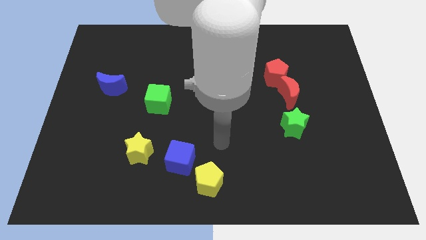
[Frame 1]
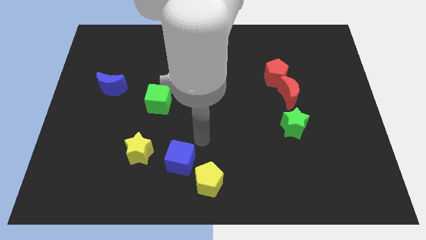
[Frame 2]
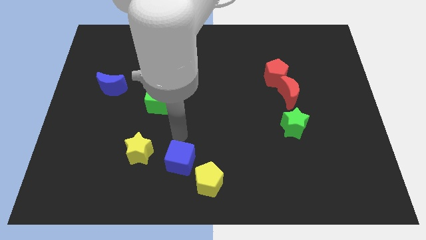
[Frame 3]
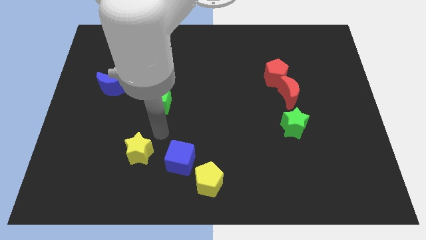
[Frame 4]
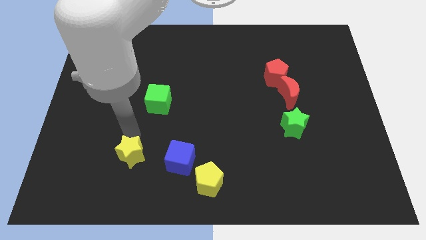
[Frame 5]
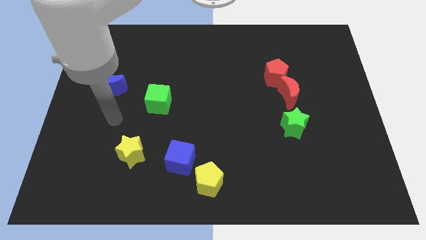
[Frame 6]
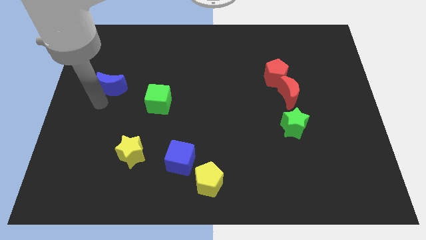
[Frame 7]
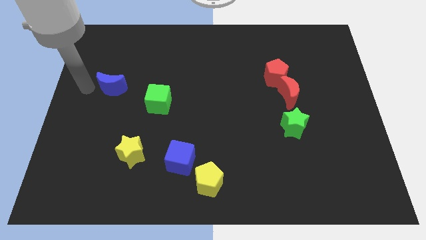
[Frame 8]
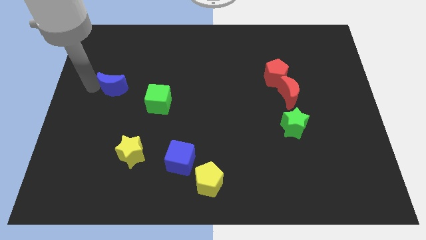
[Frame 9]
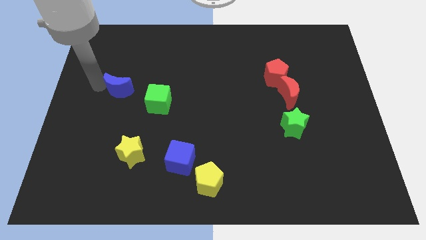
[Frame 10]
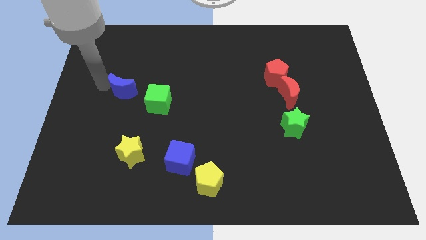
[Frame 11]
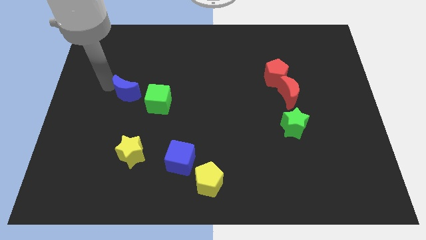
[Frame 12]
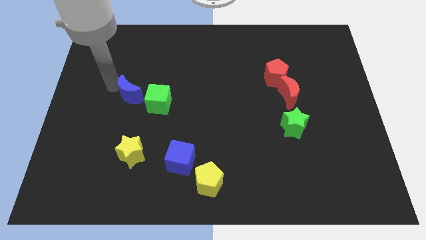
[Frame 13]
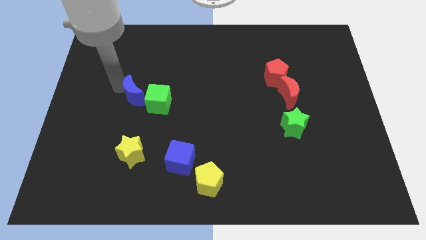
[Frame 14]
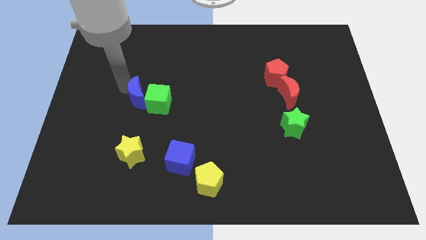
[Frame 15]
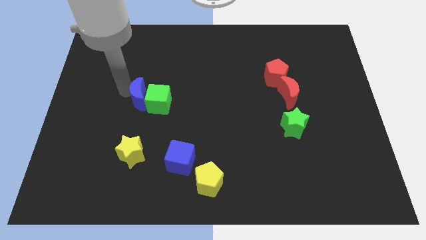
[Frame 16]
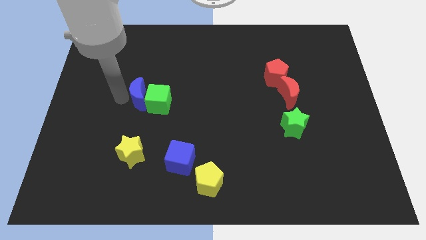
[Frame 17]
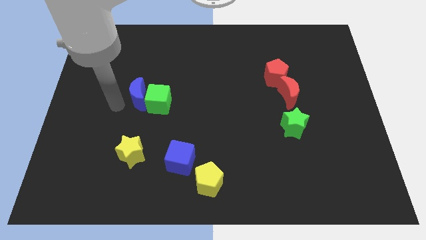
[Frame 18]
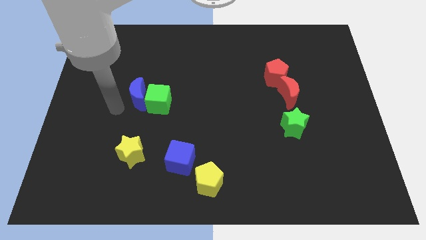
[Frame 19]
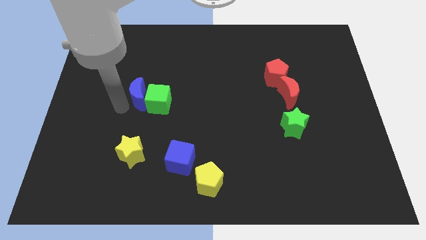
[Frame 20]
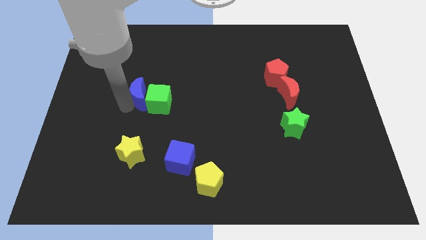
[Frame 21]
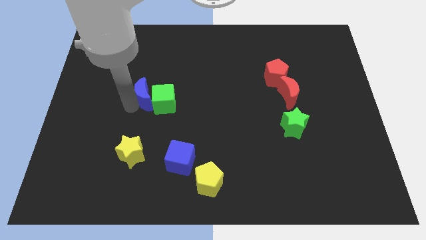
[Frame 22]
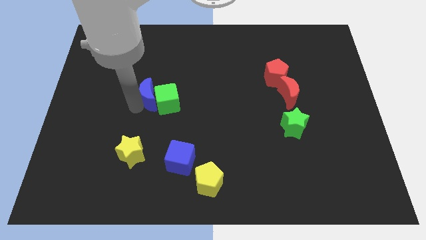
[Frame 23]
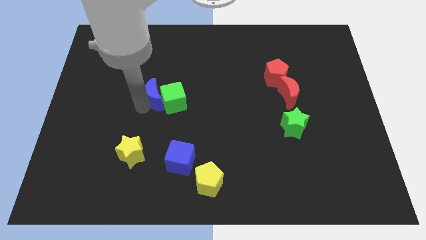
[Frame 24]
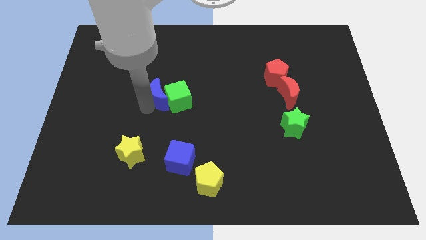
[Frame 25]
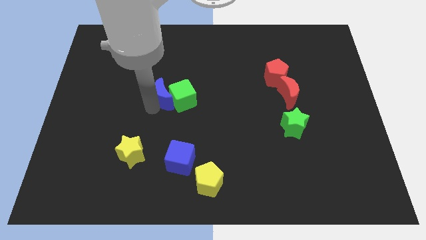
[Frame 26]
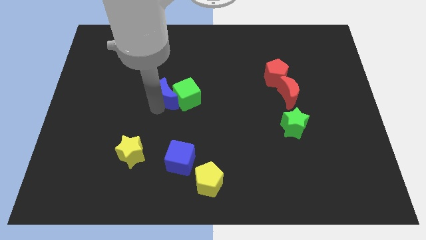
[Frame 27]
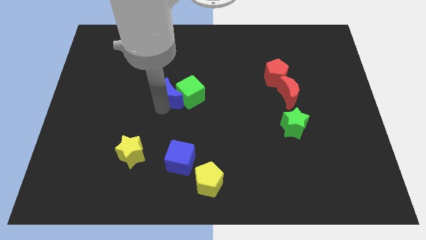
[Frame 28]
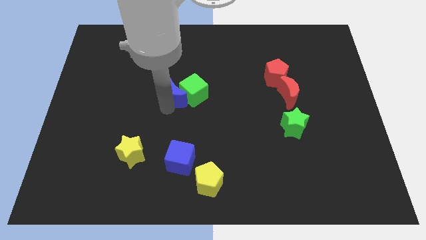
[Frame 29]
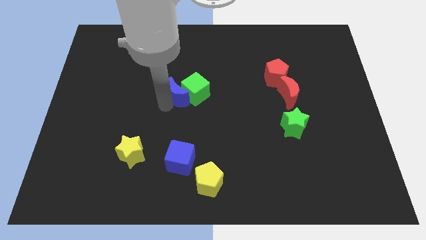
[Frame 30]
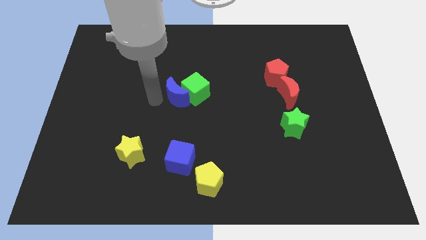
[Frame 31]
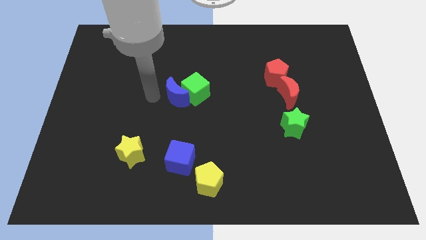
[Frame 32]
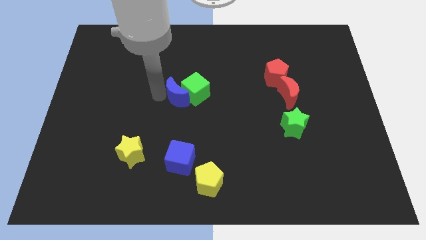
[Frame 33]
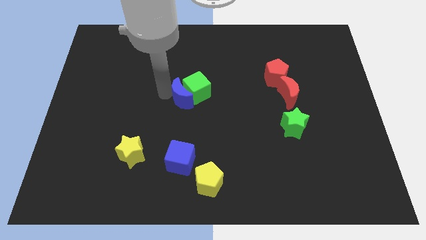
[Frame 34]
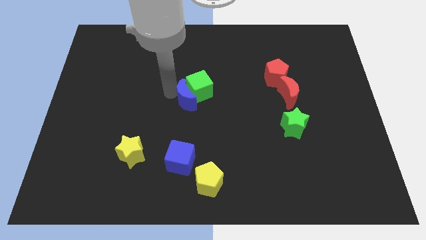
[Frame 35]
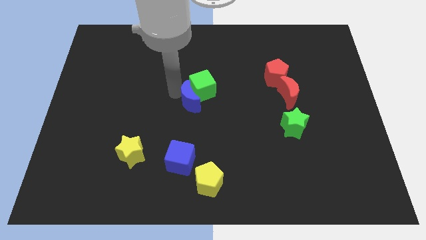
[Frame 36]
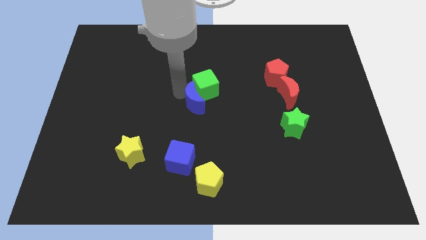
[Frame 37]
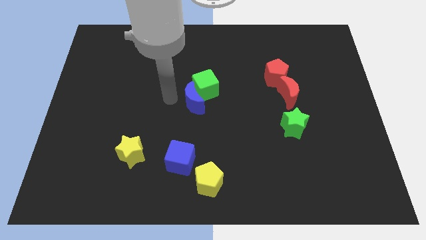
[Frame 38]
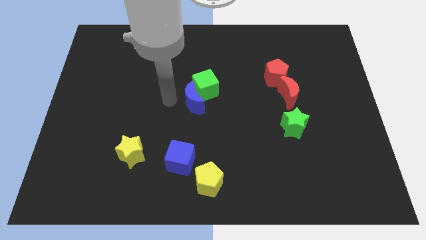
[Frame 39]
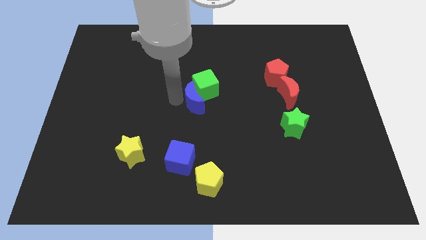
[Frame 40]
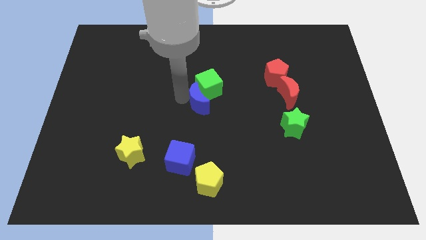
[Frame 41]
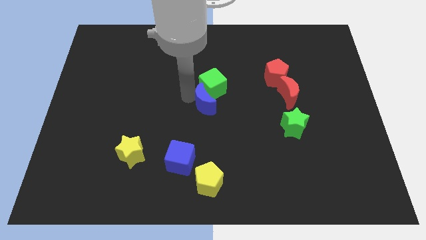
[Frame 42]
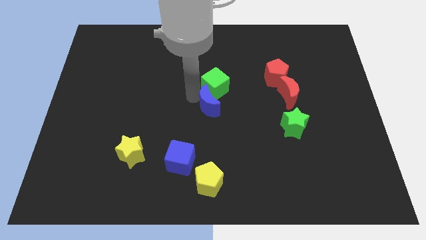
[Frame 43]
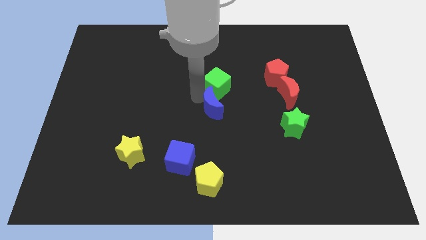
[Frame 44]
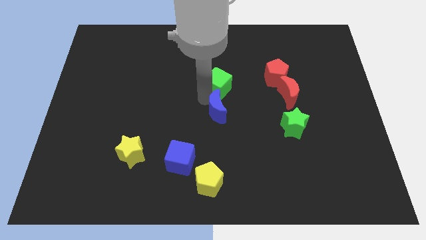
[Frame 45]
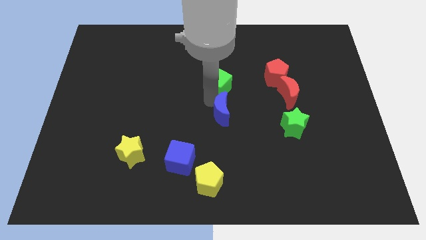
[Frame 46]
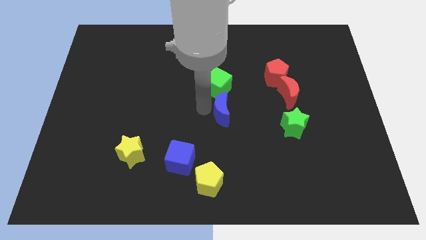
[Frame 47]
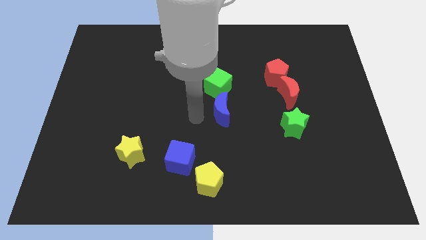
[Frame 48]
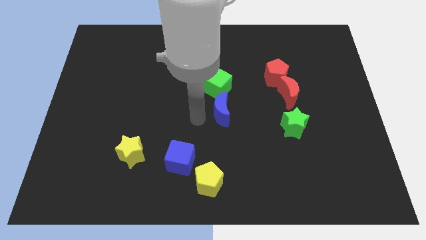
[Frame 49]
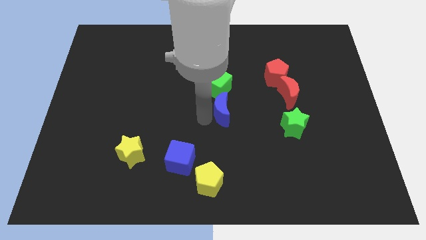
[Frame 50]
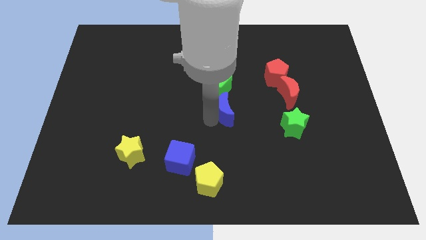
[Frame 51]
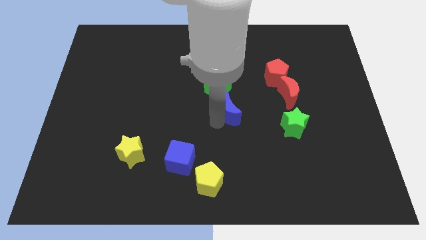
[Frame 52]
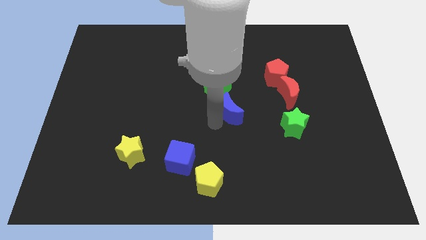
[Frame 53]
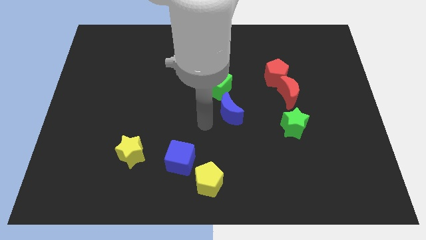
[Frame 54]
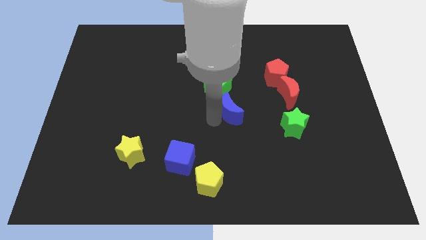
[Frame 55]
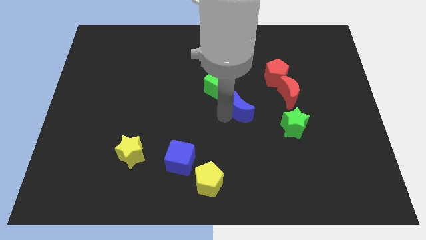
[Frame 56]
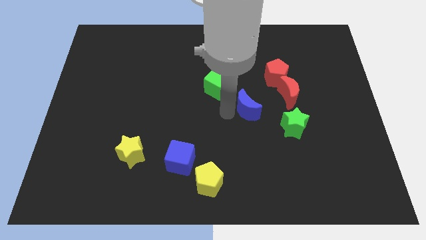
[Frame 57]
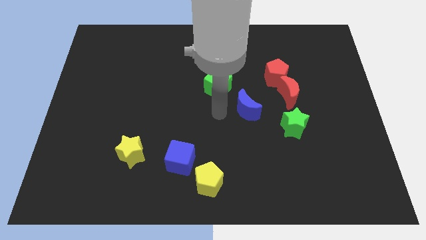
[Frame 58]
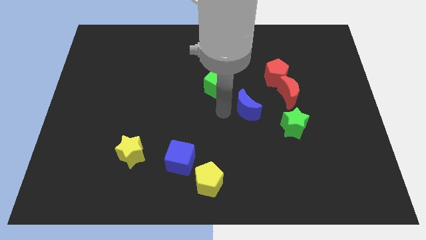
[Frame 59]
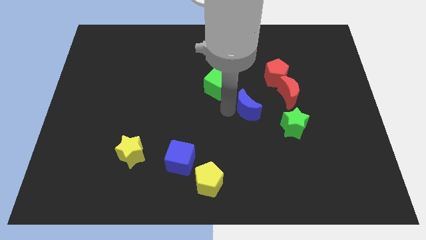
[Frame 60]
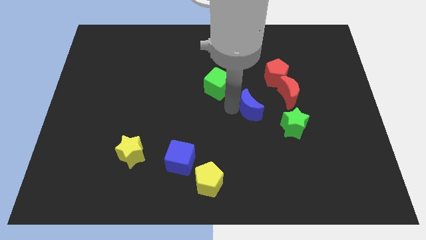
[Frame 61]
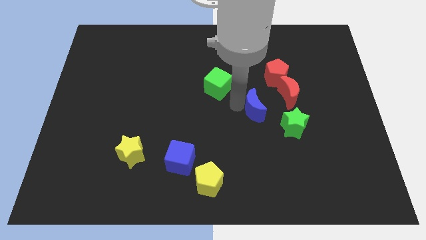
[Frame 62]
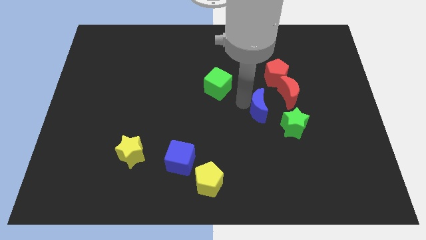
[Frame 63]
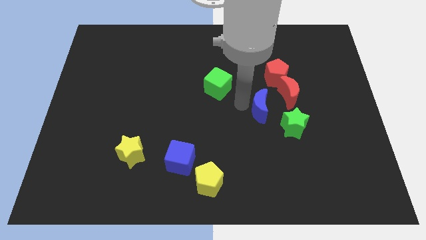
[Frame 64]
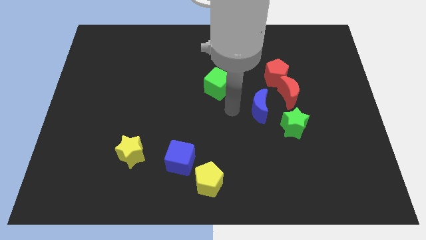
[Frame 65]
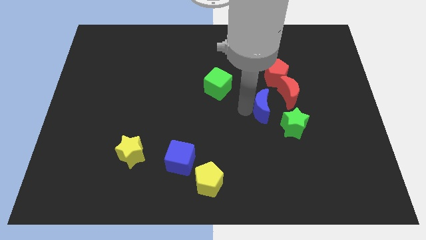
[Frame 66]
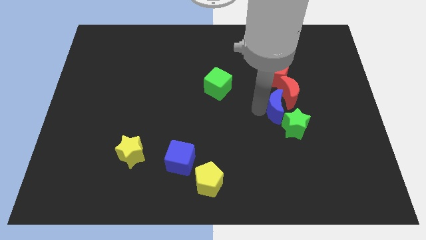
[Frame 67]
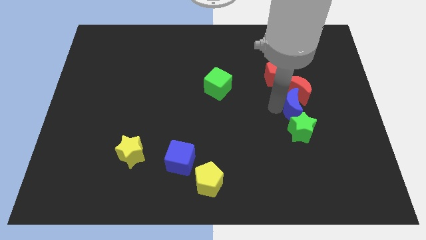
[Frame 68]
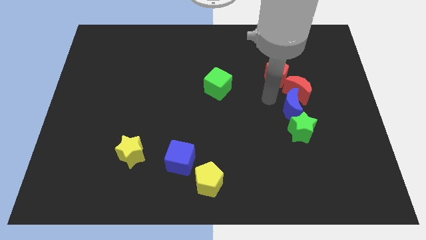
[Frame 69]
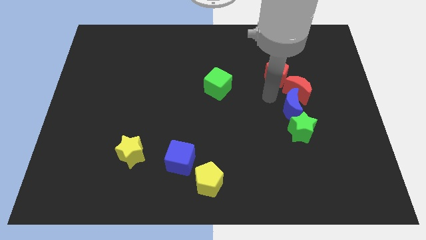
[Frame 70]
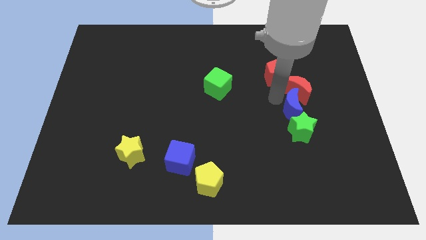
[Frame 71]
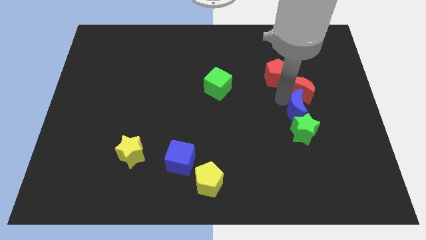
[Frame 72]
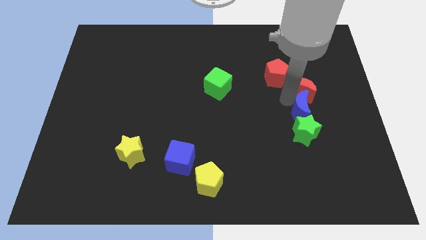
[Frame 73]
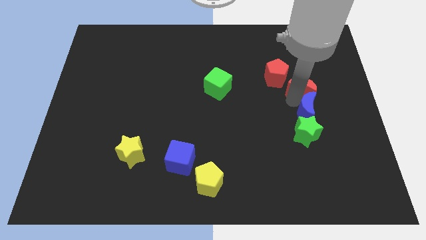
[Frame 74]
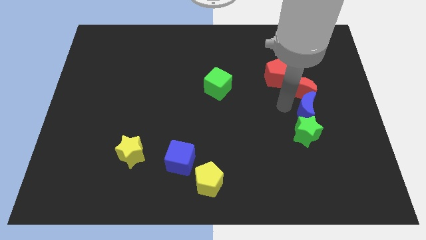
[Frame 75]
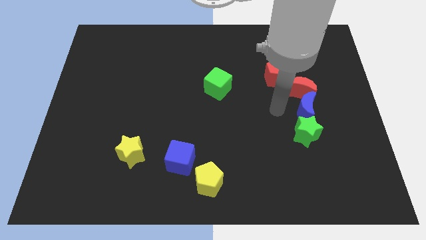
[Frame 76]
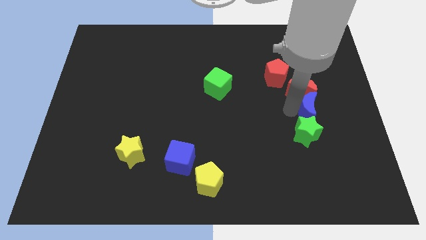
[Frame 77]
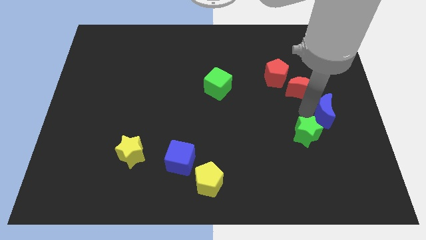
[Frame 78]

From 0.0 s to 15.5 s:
slide the blue moon to the center right

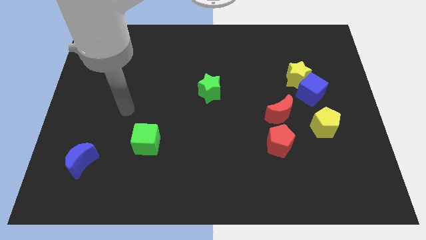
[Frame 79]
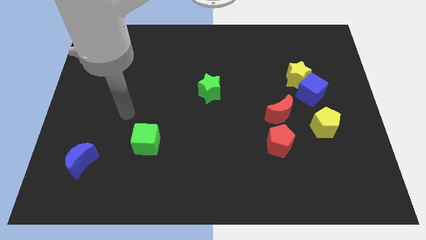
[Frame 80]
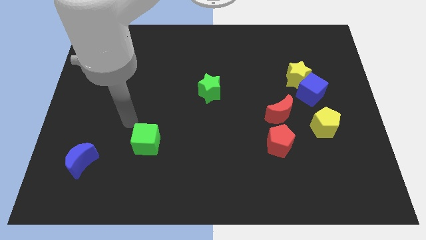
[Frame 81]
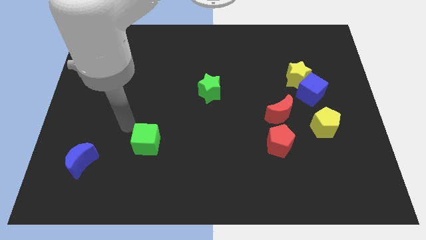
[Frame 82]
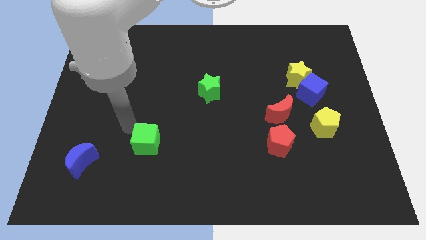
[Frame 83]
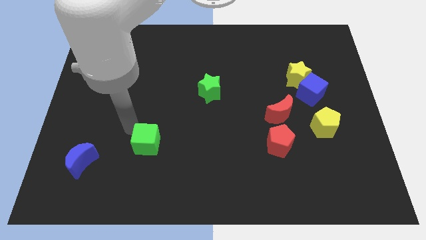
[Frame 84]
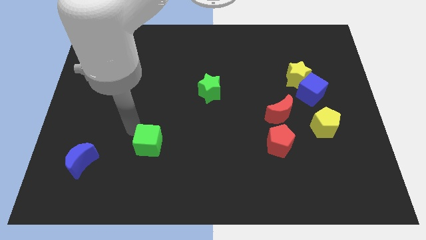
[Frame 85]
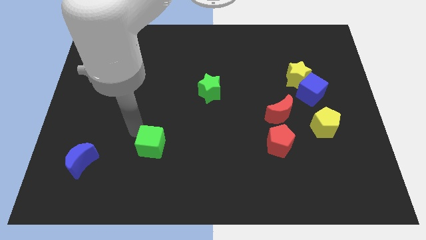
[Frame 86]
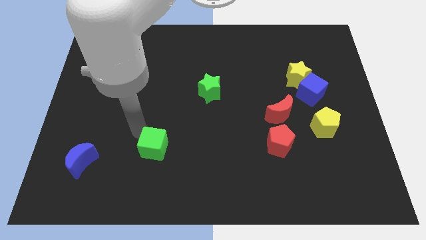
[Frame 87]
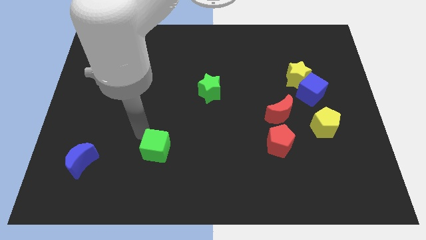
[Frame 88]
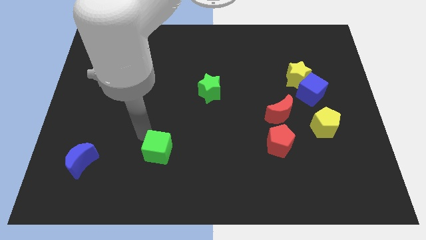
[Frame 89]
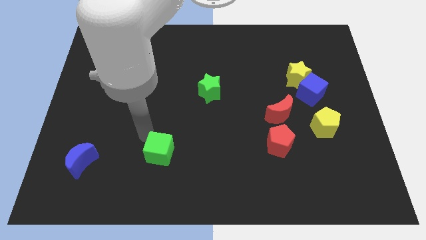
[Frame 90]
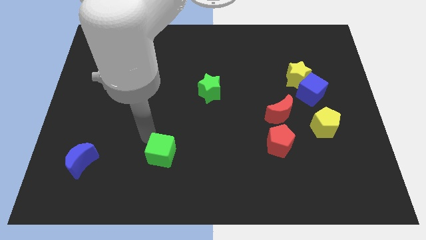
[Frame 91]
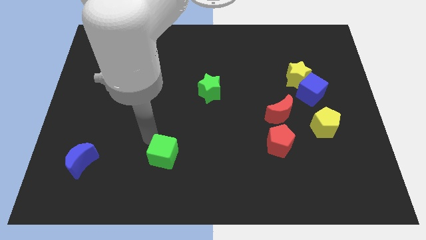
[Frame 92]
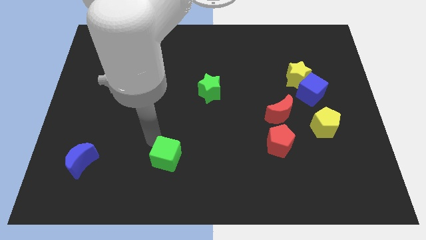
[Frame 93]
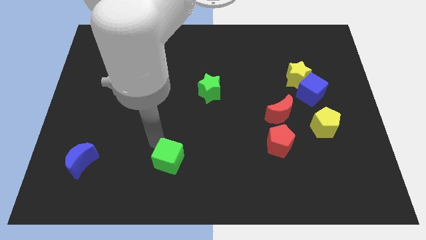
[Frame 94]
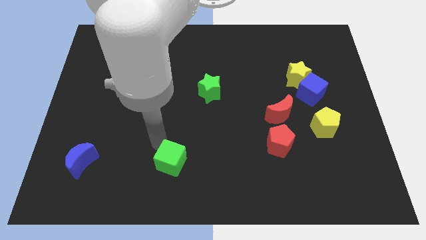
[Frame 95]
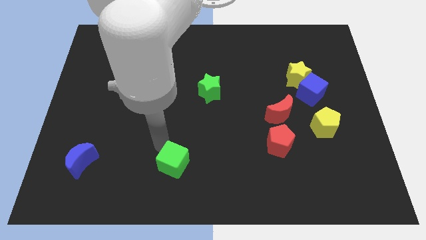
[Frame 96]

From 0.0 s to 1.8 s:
push the green cube to the bottom side
